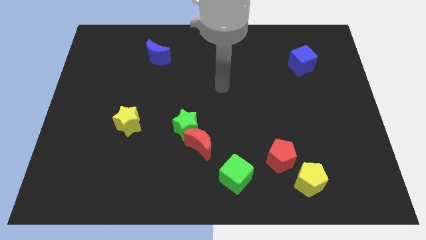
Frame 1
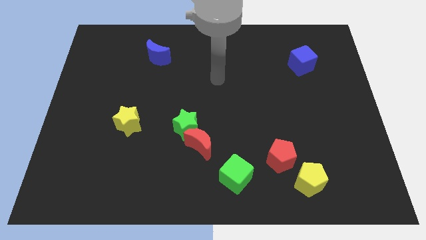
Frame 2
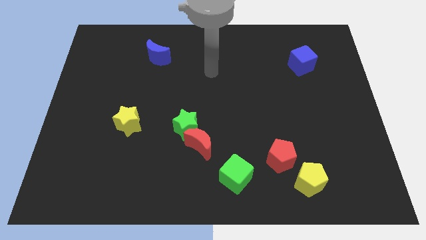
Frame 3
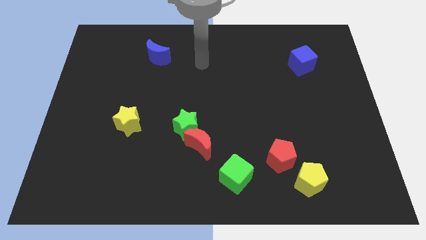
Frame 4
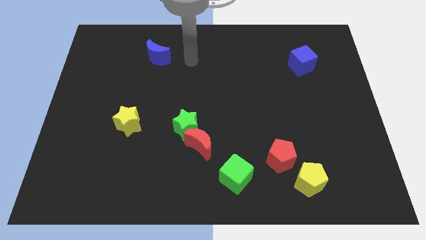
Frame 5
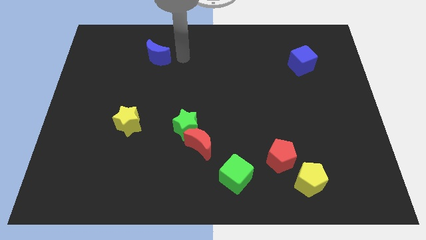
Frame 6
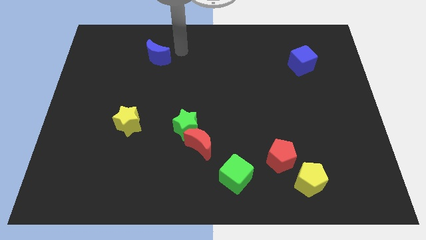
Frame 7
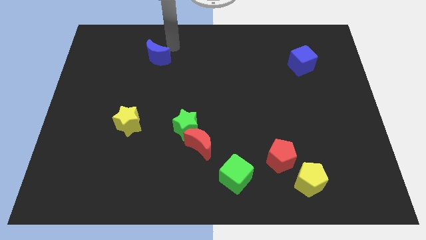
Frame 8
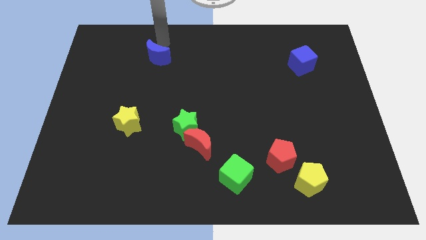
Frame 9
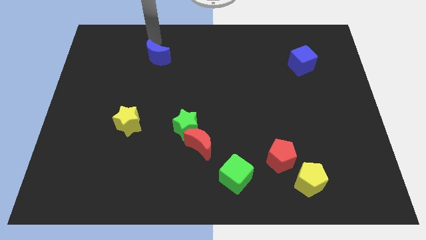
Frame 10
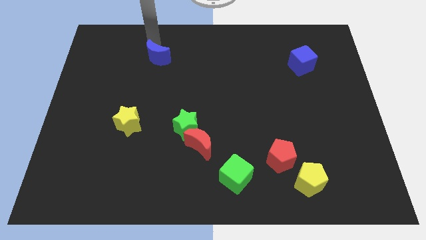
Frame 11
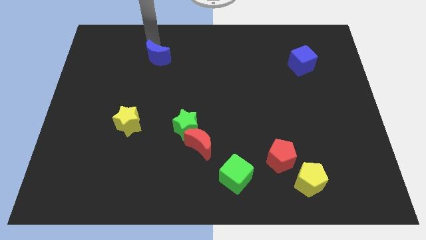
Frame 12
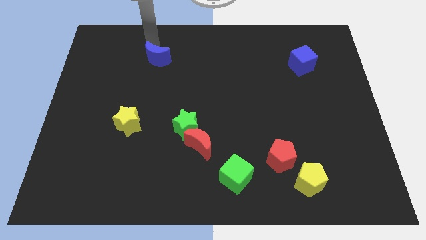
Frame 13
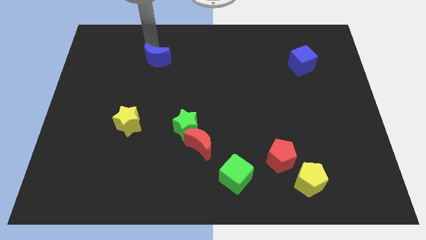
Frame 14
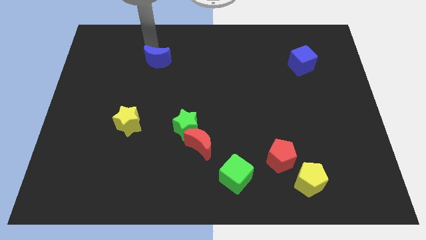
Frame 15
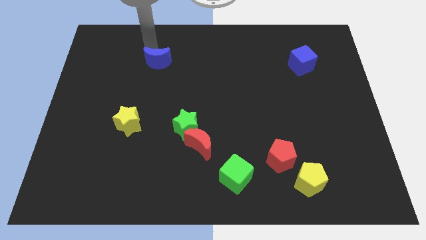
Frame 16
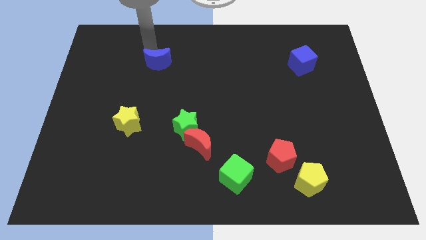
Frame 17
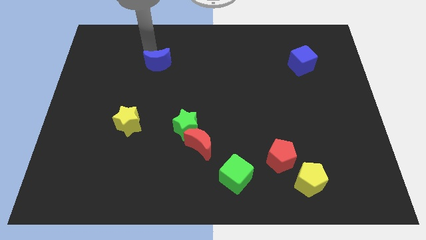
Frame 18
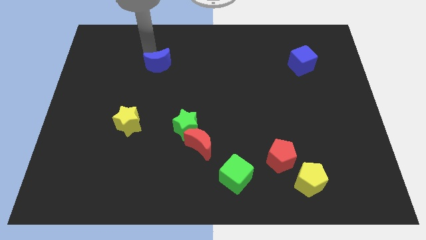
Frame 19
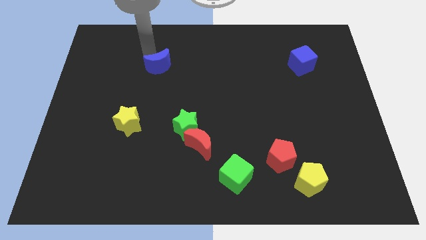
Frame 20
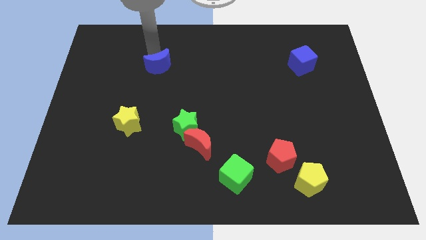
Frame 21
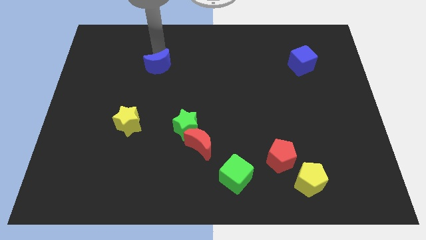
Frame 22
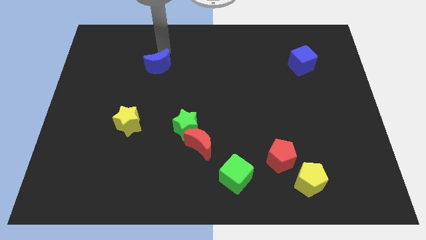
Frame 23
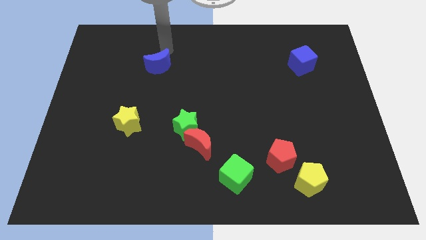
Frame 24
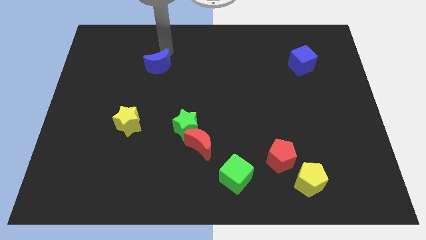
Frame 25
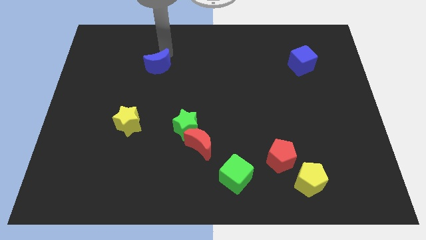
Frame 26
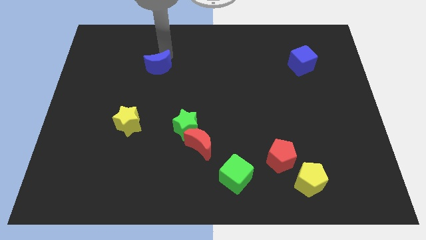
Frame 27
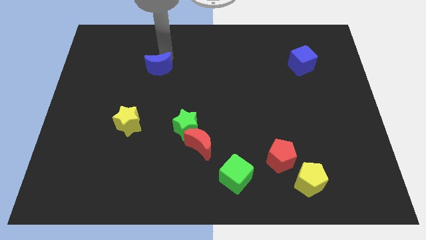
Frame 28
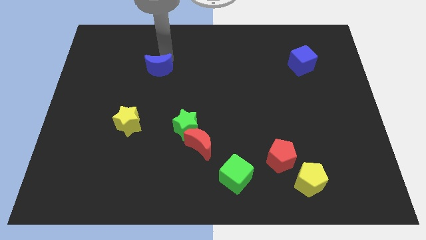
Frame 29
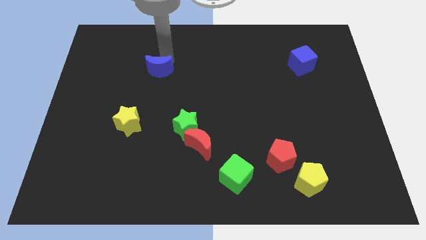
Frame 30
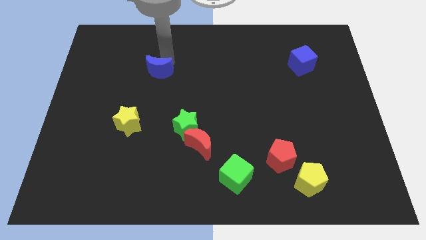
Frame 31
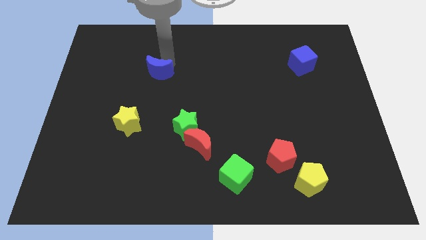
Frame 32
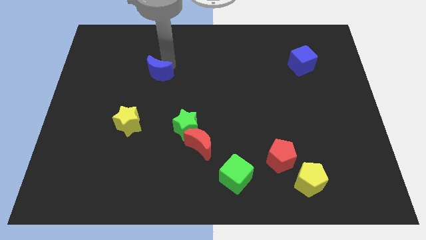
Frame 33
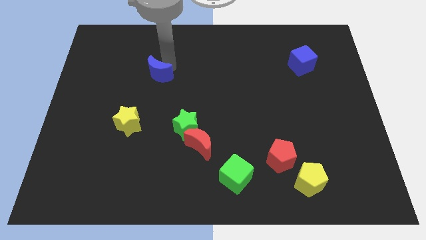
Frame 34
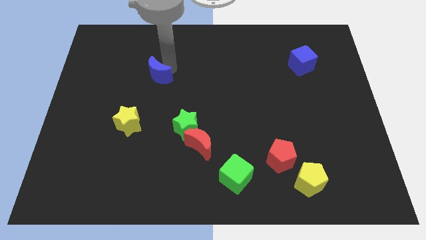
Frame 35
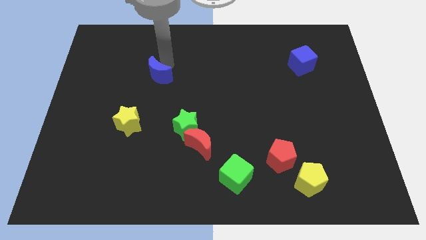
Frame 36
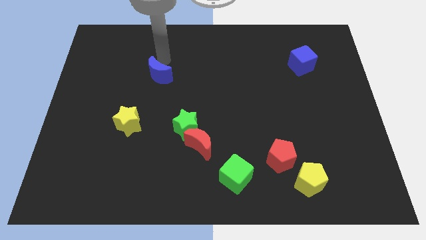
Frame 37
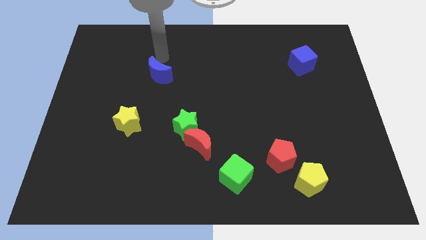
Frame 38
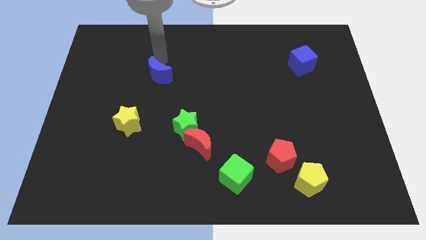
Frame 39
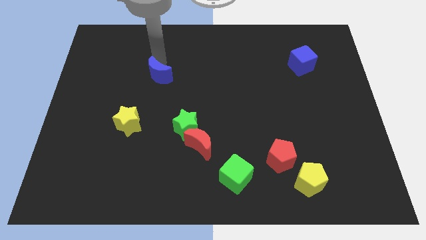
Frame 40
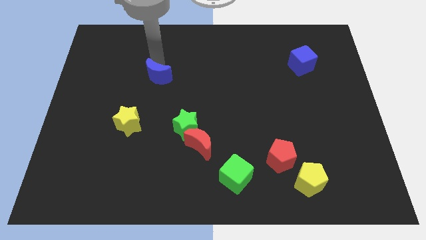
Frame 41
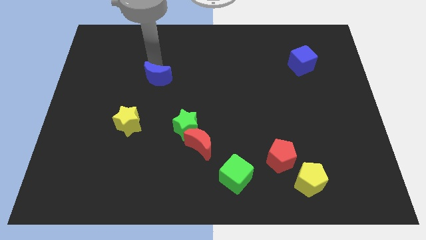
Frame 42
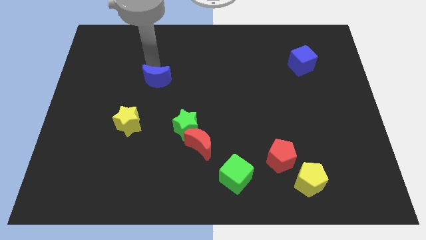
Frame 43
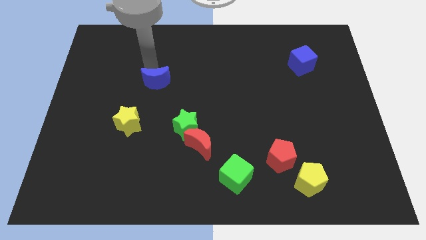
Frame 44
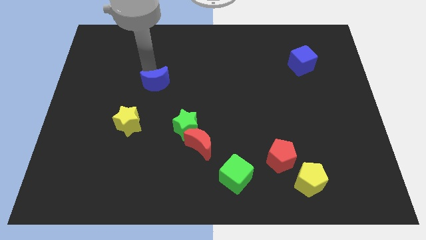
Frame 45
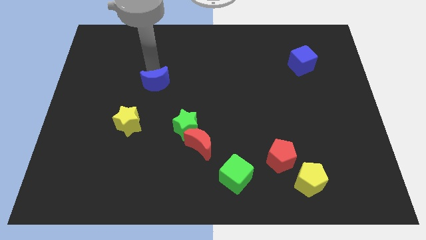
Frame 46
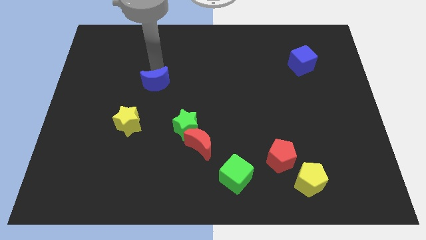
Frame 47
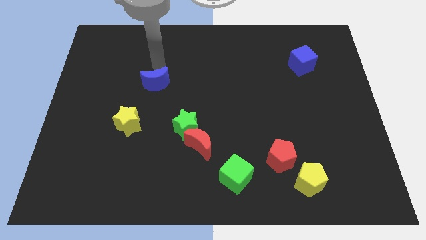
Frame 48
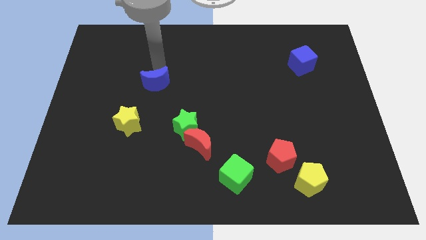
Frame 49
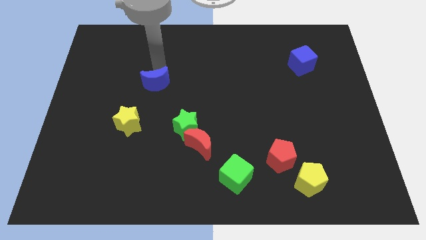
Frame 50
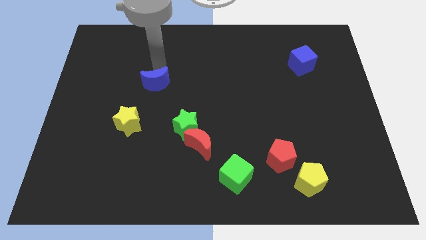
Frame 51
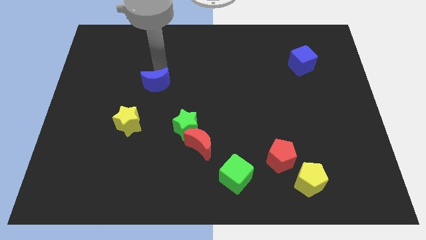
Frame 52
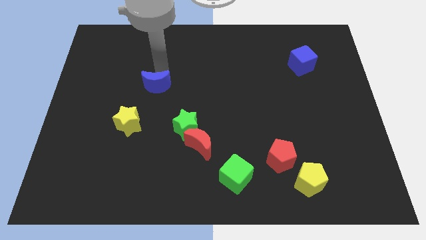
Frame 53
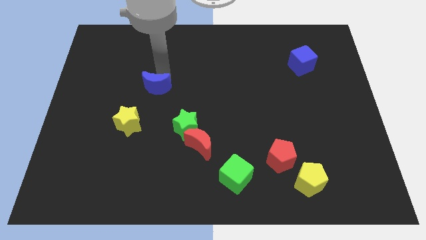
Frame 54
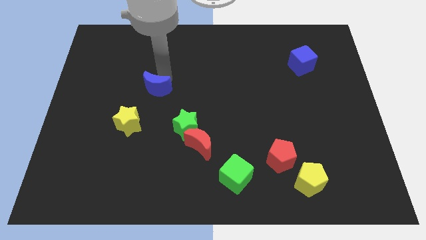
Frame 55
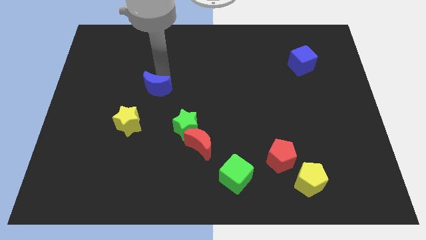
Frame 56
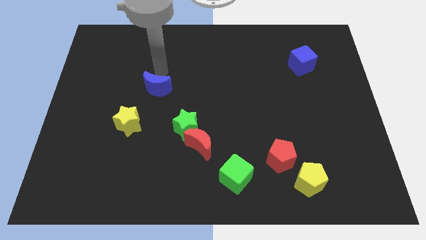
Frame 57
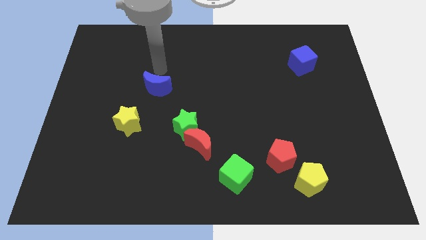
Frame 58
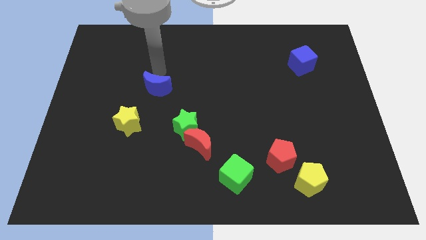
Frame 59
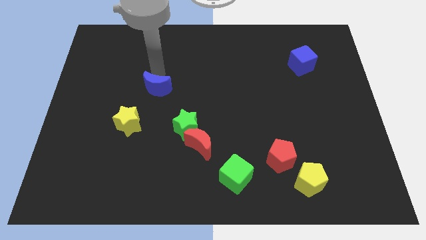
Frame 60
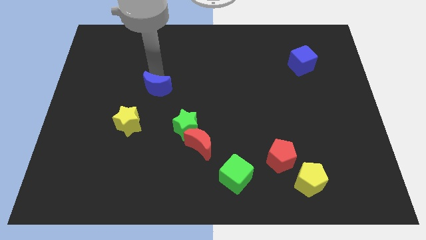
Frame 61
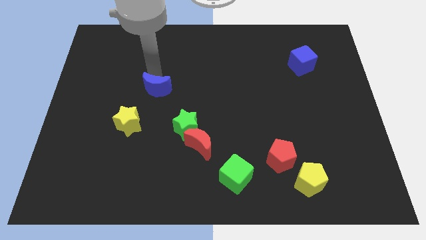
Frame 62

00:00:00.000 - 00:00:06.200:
move the blue moon diagonally up and to the right of the yellow star

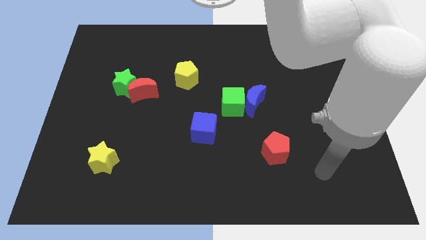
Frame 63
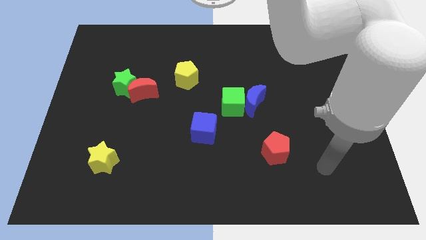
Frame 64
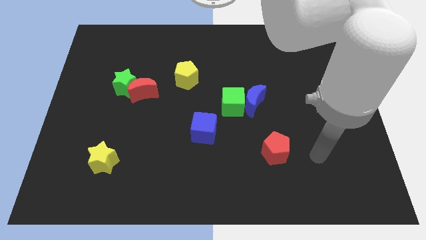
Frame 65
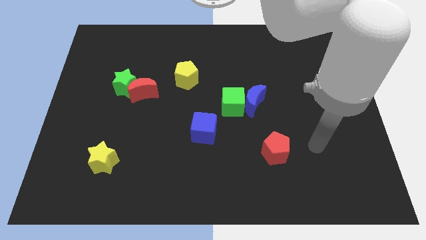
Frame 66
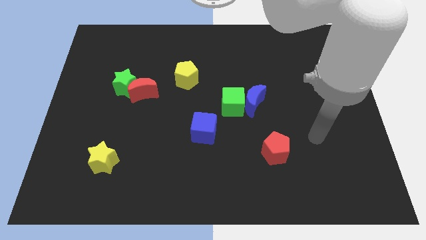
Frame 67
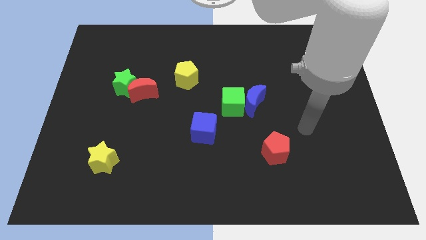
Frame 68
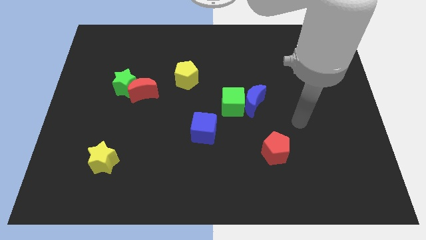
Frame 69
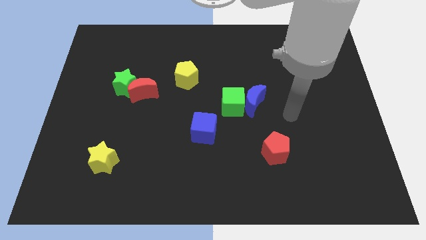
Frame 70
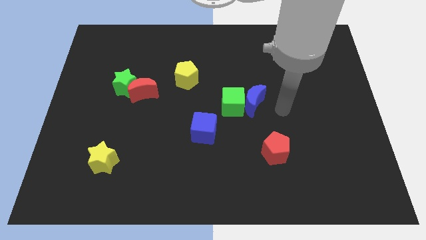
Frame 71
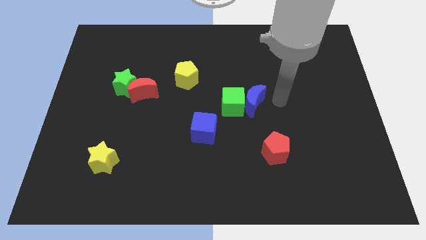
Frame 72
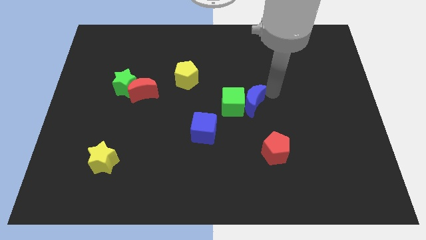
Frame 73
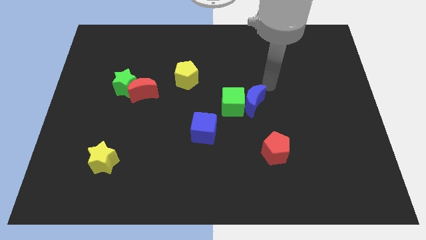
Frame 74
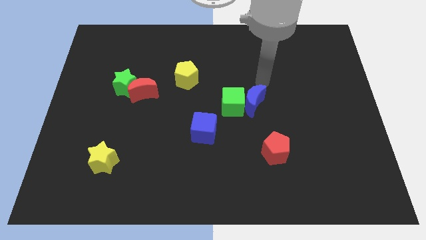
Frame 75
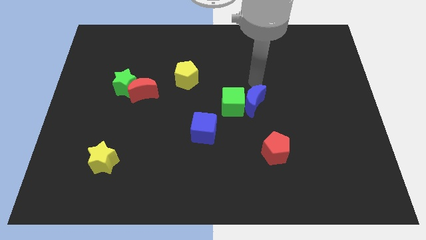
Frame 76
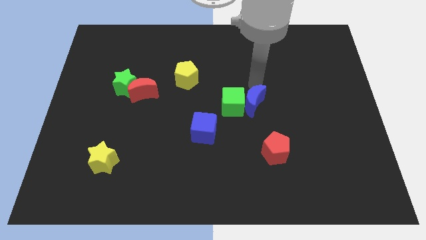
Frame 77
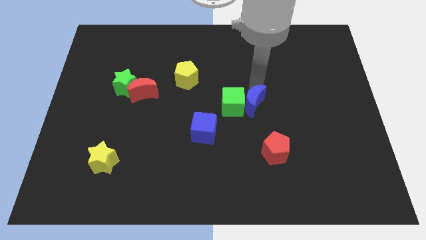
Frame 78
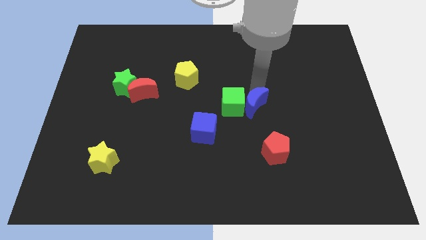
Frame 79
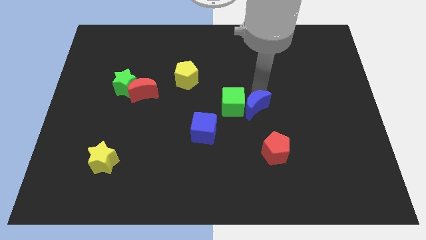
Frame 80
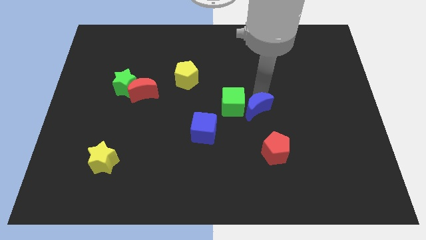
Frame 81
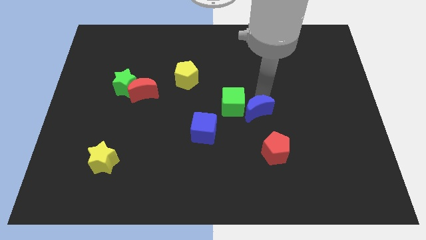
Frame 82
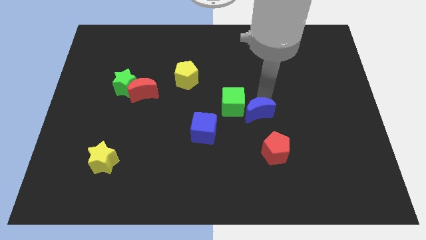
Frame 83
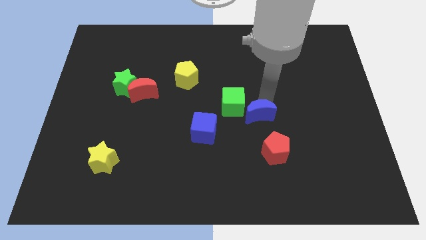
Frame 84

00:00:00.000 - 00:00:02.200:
push the blue moon to the right side of the blue cube
